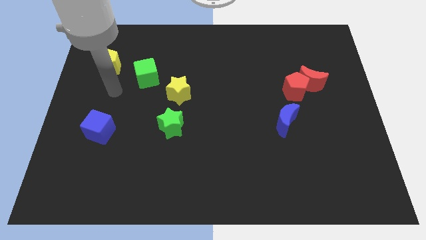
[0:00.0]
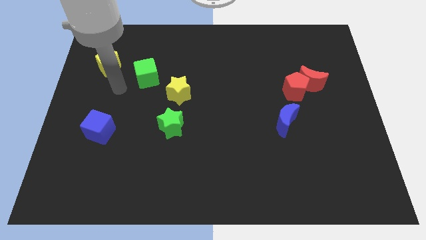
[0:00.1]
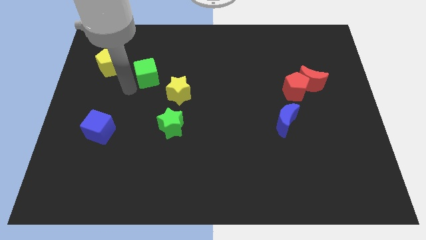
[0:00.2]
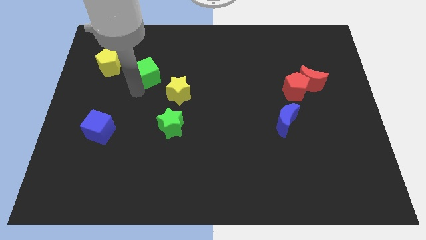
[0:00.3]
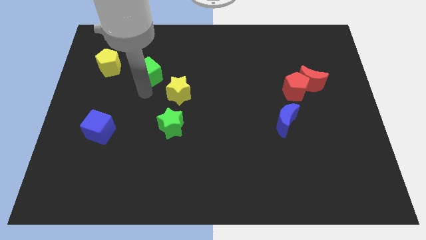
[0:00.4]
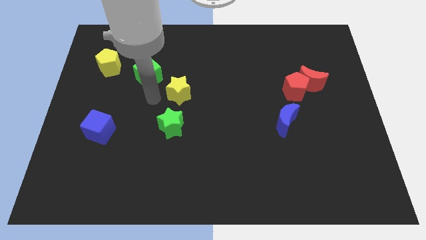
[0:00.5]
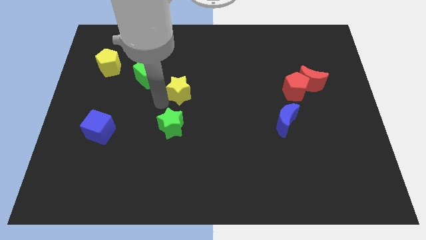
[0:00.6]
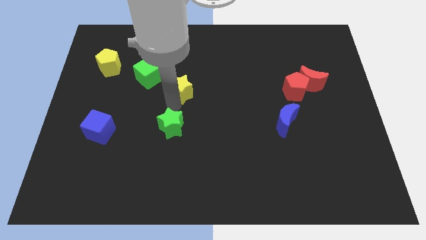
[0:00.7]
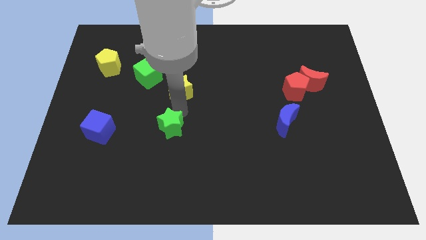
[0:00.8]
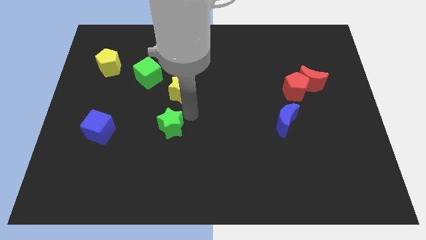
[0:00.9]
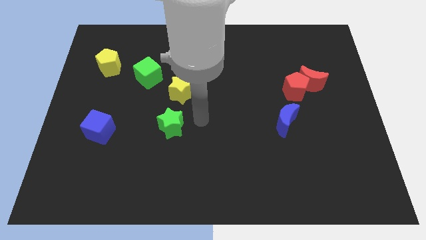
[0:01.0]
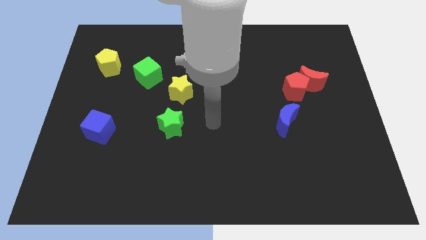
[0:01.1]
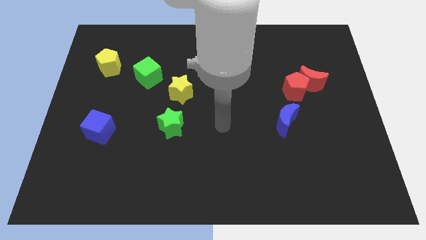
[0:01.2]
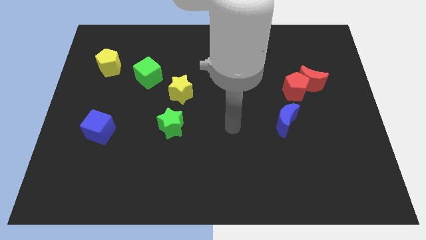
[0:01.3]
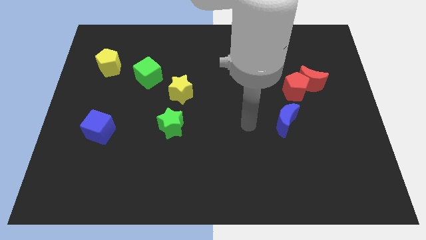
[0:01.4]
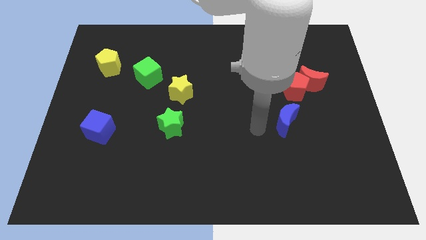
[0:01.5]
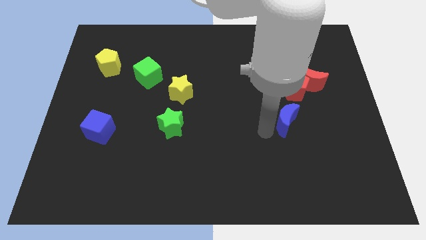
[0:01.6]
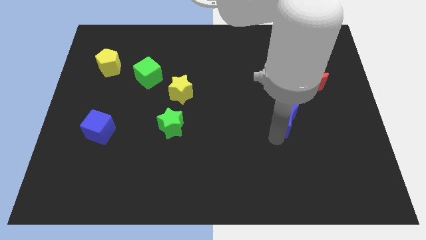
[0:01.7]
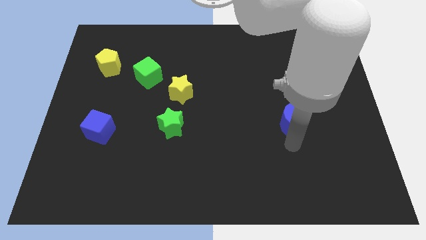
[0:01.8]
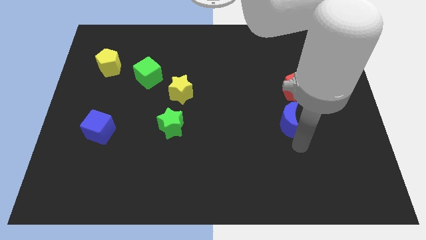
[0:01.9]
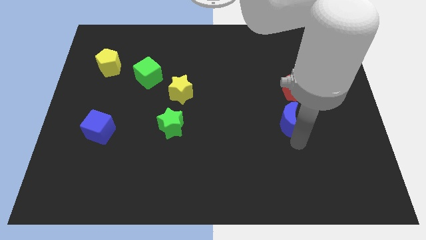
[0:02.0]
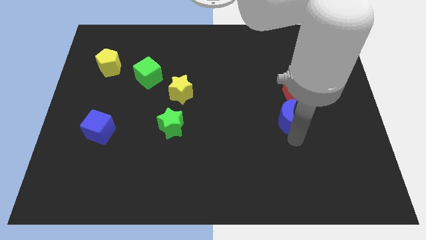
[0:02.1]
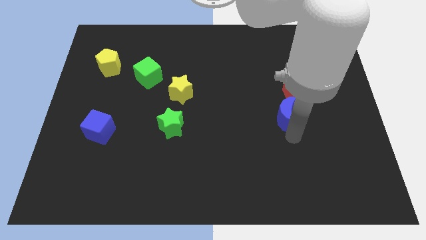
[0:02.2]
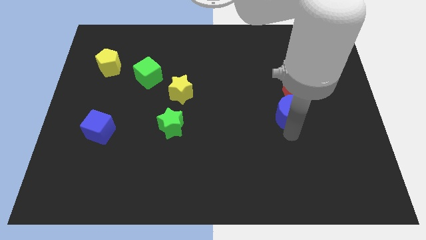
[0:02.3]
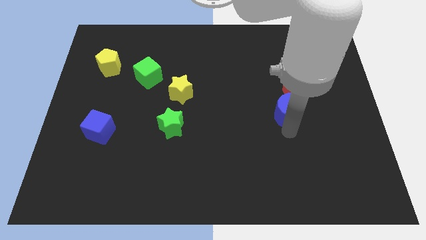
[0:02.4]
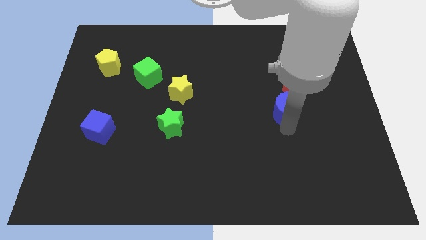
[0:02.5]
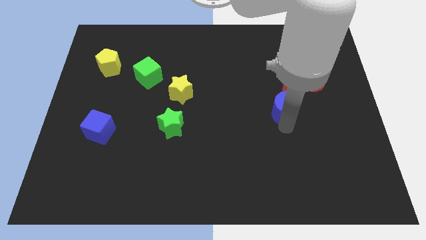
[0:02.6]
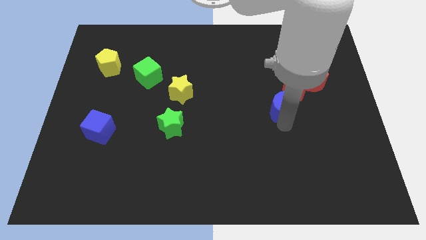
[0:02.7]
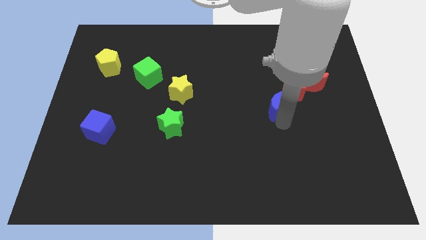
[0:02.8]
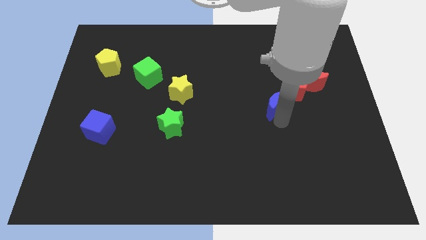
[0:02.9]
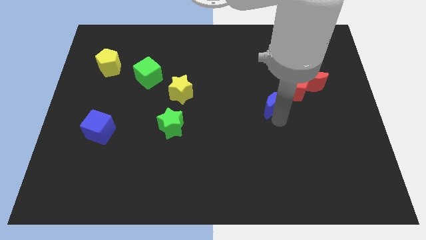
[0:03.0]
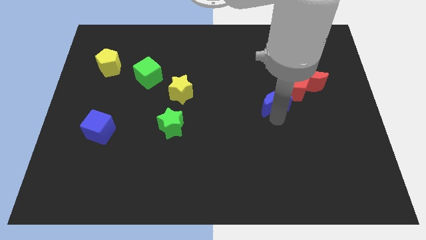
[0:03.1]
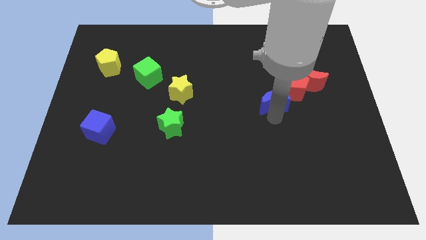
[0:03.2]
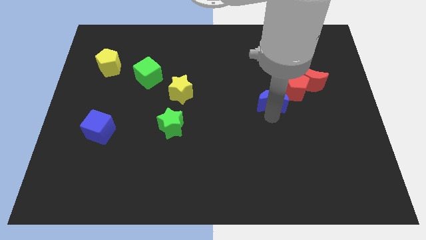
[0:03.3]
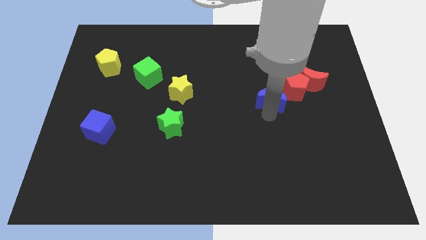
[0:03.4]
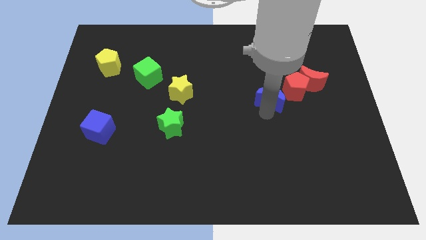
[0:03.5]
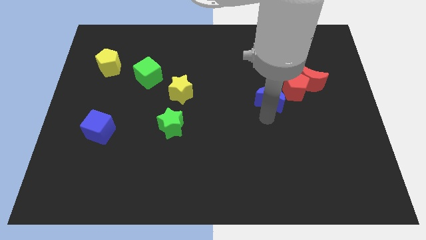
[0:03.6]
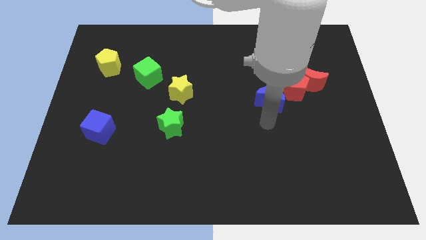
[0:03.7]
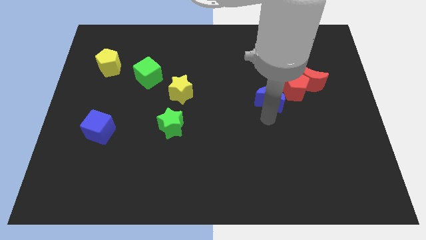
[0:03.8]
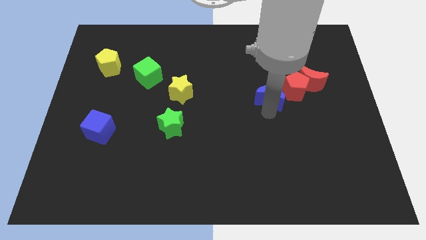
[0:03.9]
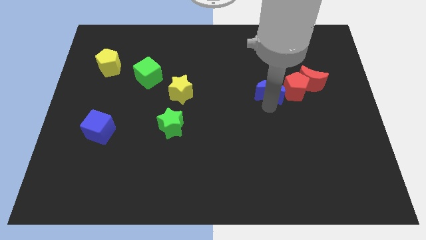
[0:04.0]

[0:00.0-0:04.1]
slide the blue moon a bit upwards

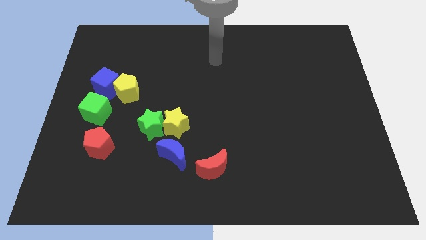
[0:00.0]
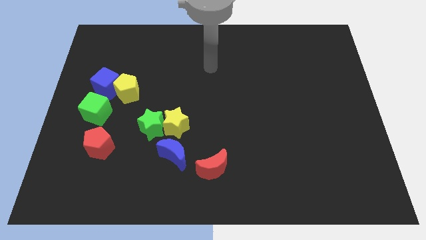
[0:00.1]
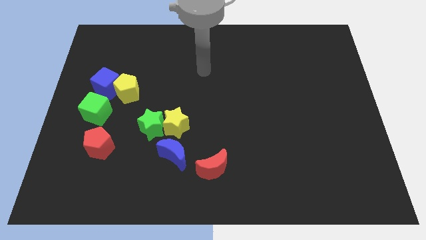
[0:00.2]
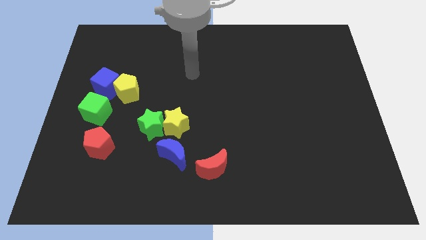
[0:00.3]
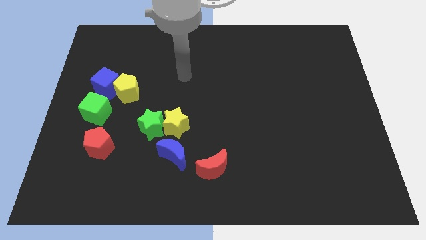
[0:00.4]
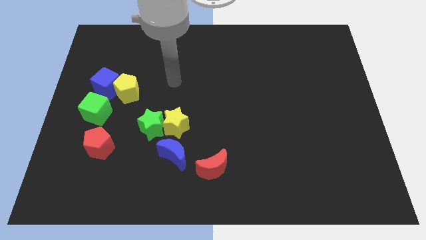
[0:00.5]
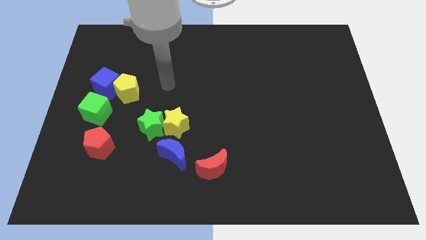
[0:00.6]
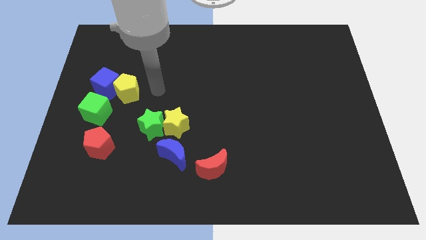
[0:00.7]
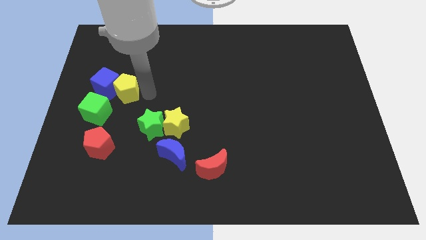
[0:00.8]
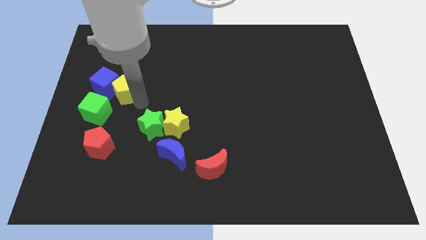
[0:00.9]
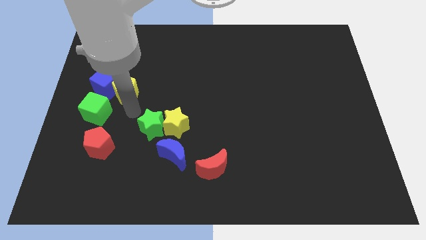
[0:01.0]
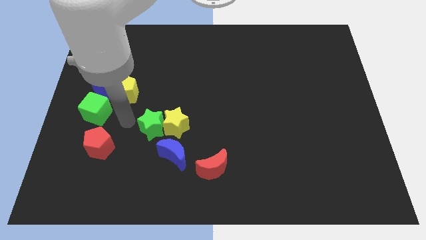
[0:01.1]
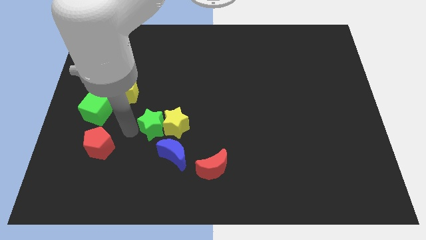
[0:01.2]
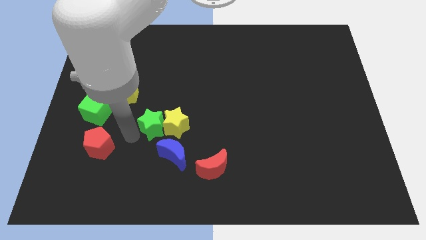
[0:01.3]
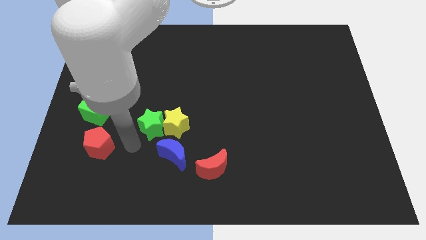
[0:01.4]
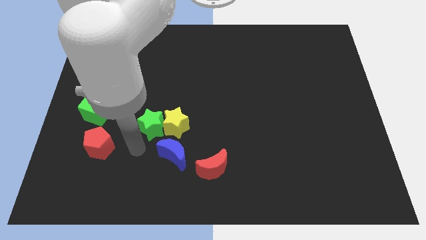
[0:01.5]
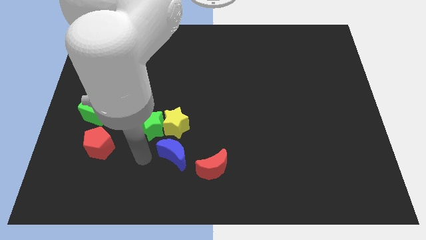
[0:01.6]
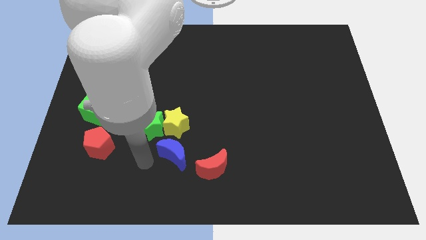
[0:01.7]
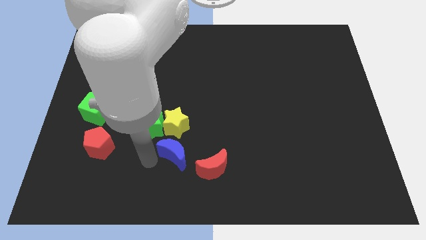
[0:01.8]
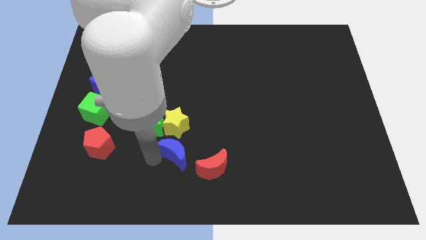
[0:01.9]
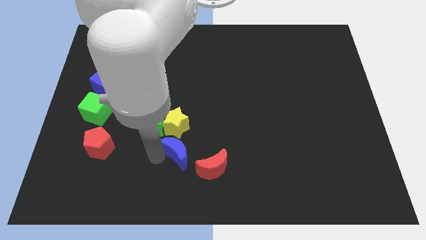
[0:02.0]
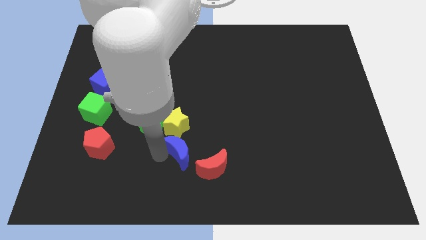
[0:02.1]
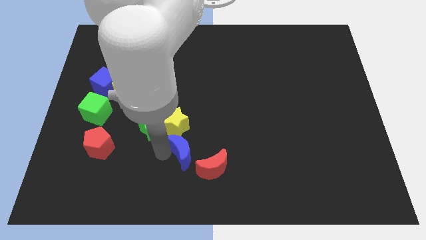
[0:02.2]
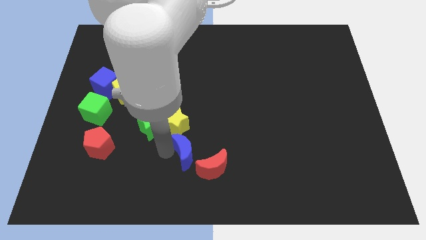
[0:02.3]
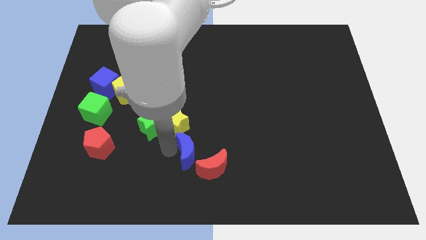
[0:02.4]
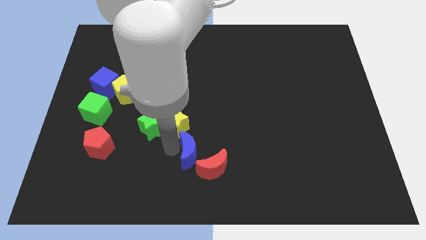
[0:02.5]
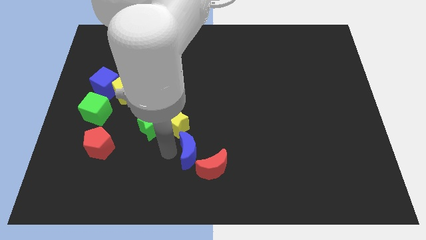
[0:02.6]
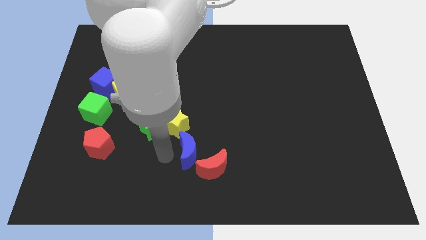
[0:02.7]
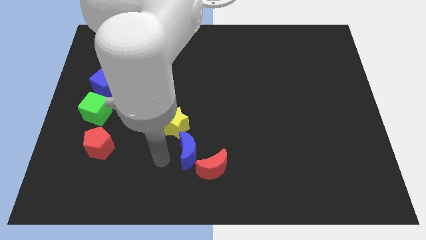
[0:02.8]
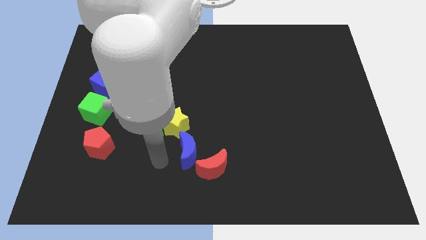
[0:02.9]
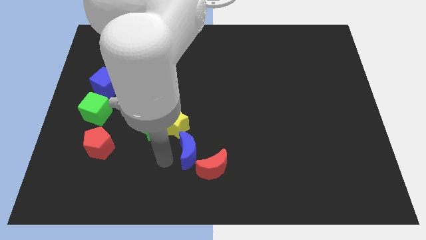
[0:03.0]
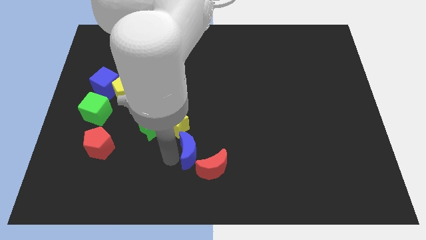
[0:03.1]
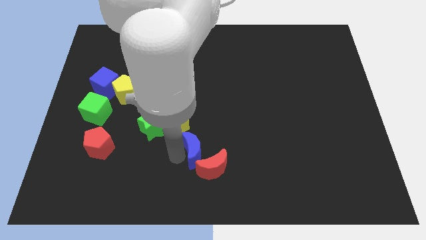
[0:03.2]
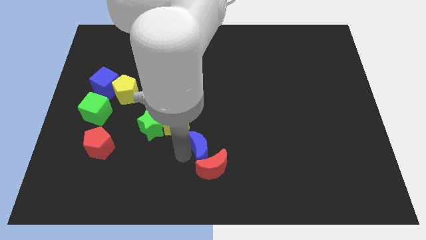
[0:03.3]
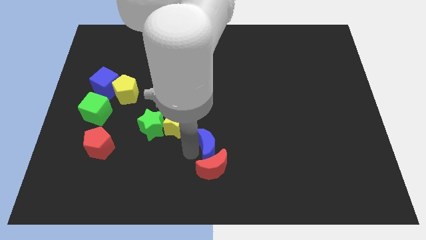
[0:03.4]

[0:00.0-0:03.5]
push the blue moon right a little bit

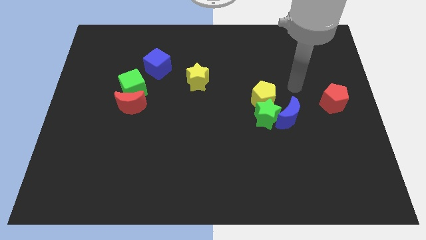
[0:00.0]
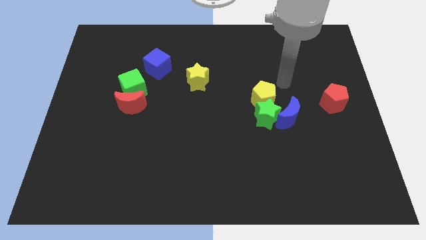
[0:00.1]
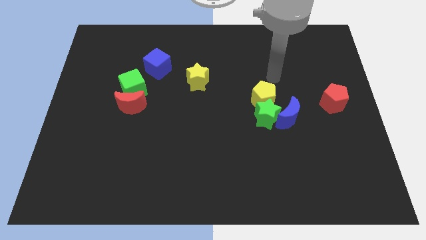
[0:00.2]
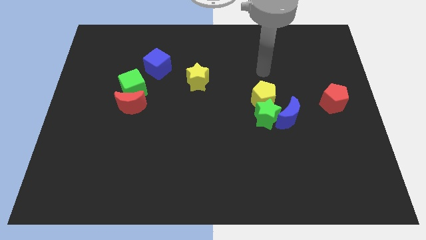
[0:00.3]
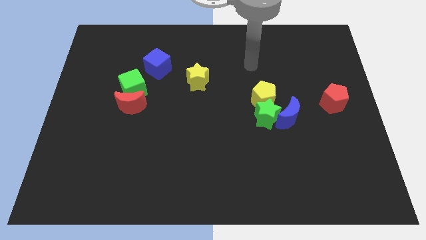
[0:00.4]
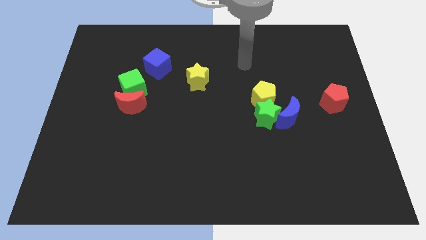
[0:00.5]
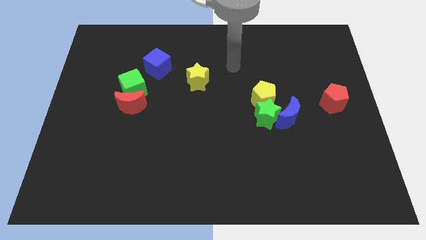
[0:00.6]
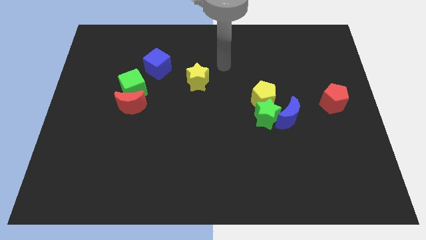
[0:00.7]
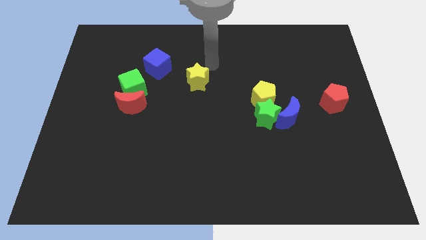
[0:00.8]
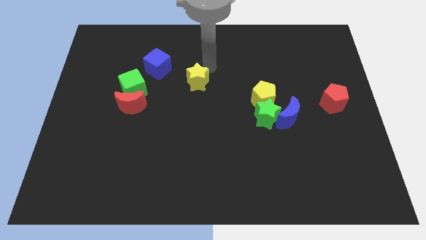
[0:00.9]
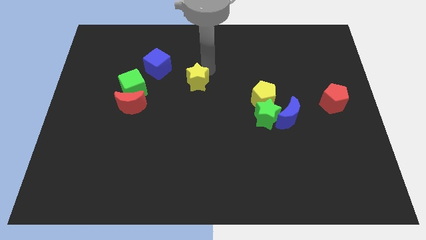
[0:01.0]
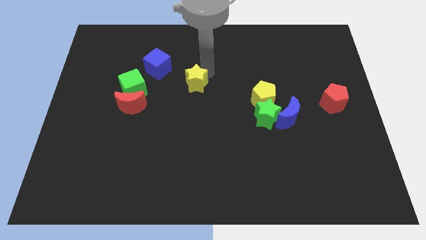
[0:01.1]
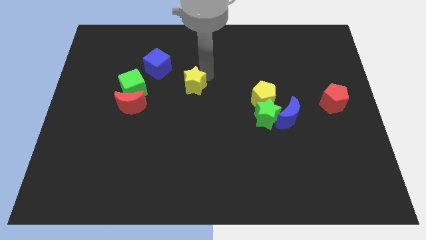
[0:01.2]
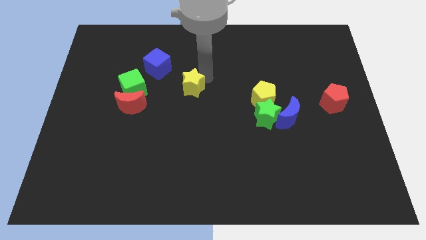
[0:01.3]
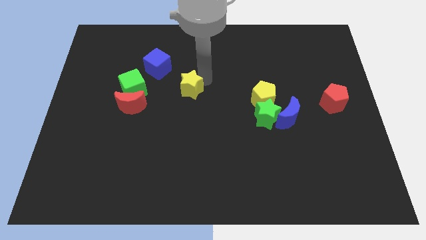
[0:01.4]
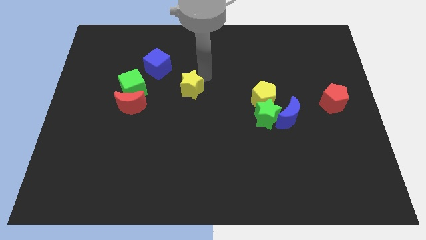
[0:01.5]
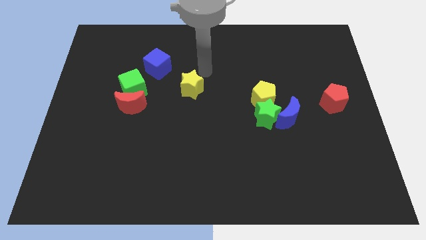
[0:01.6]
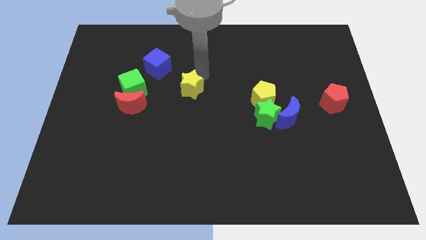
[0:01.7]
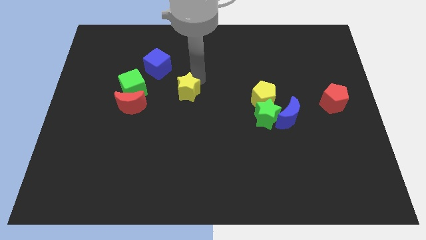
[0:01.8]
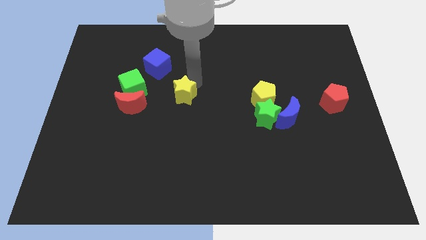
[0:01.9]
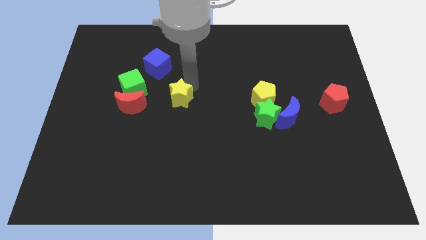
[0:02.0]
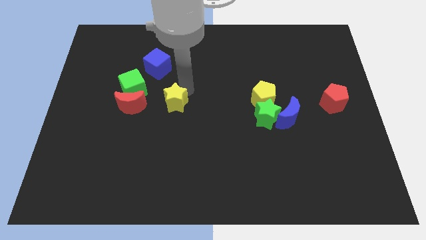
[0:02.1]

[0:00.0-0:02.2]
slightly move the yellow star downwards and to the left
